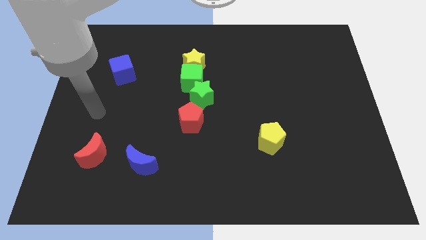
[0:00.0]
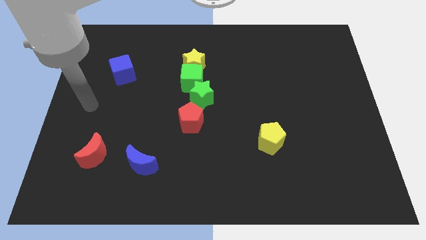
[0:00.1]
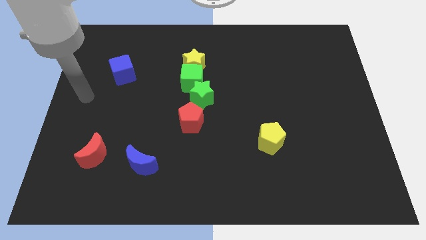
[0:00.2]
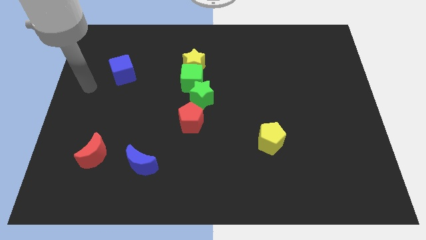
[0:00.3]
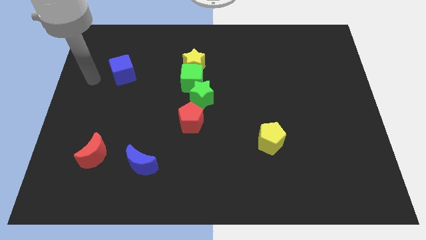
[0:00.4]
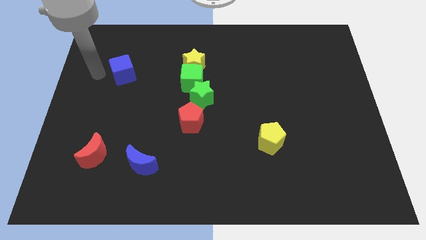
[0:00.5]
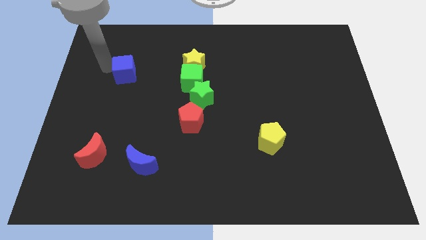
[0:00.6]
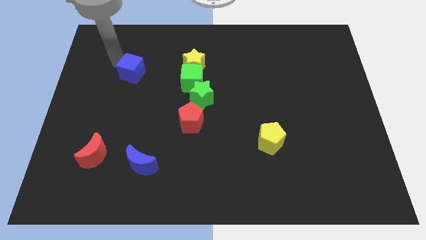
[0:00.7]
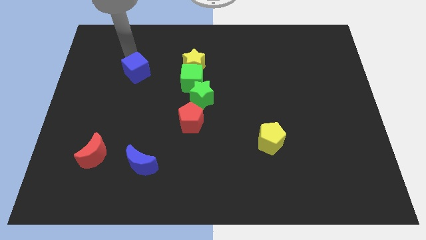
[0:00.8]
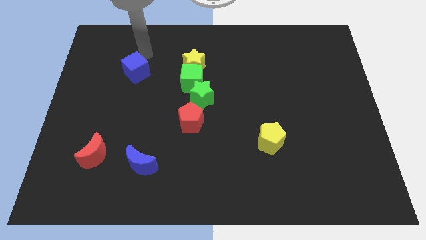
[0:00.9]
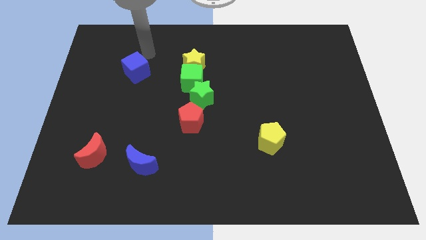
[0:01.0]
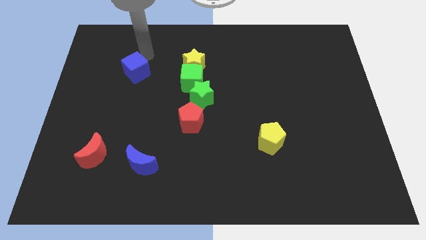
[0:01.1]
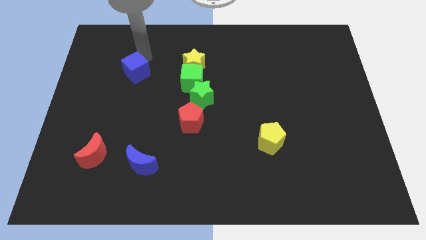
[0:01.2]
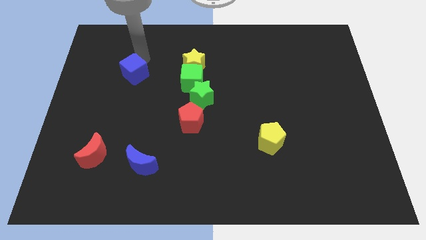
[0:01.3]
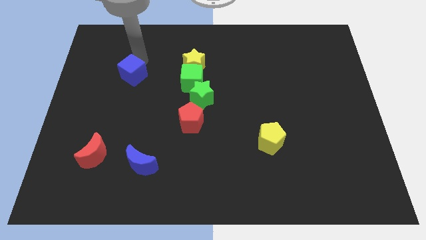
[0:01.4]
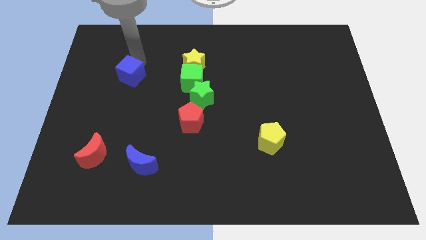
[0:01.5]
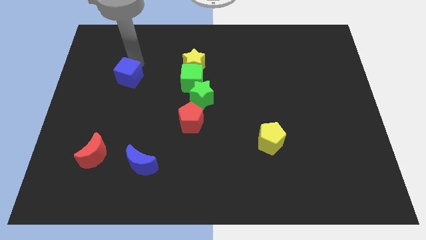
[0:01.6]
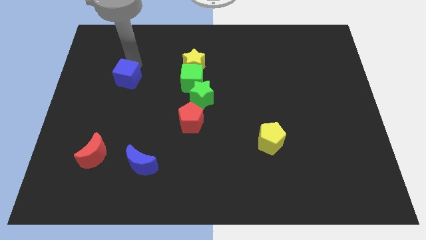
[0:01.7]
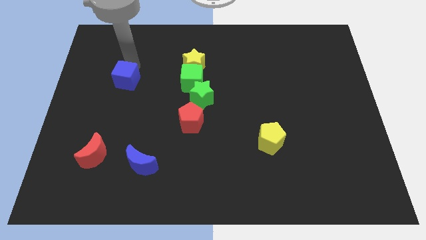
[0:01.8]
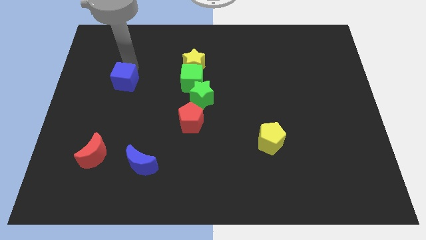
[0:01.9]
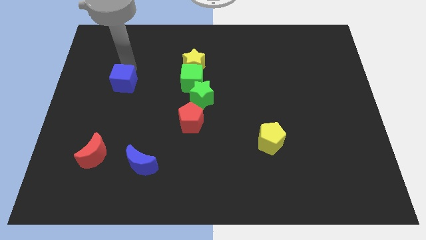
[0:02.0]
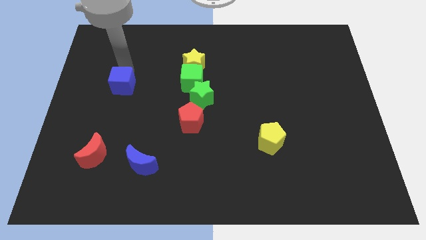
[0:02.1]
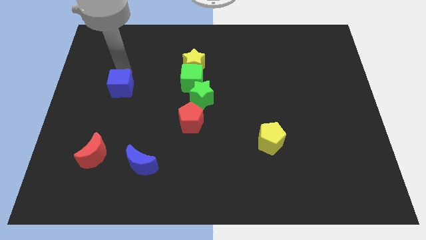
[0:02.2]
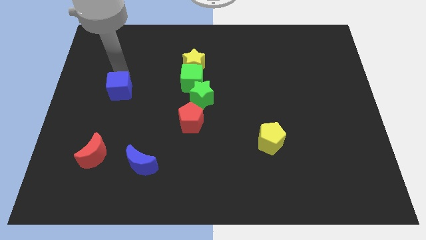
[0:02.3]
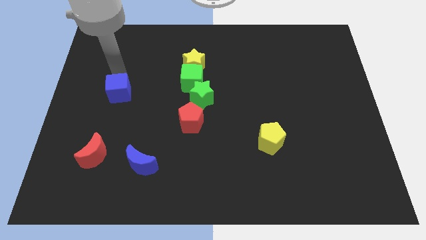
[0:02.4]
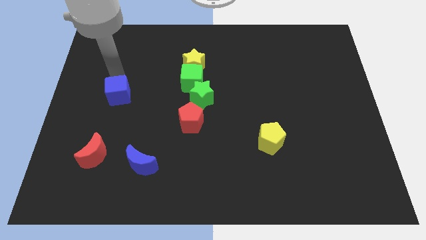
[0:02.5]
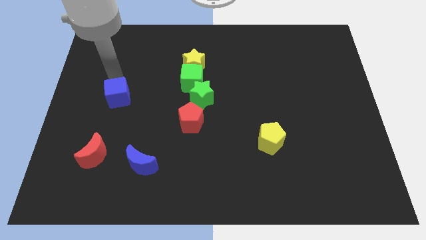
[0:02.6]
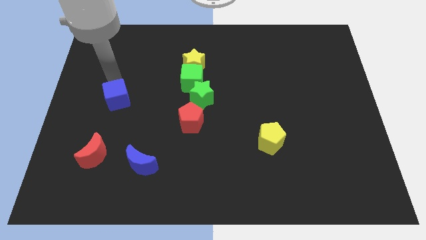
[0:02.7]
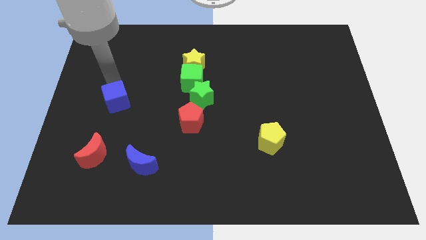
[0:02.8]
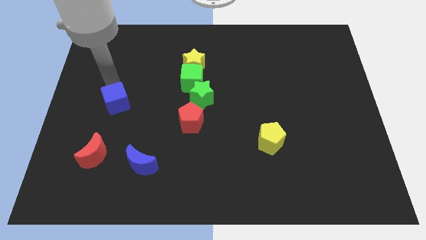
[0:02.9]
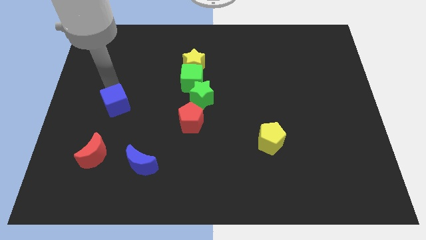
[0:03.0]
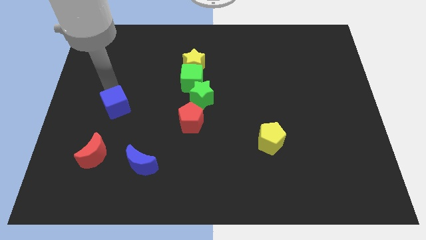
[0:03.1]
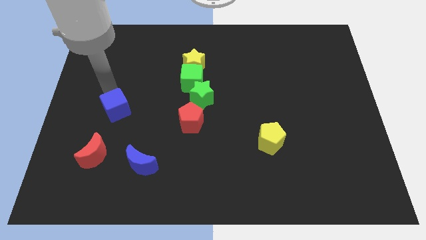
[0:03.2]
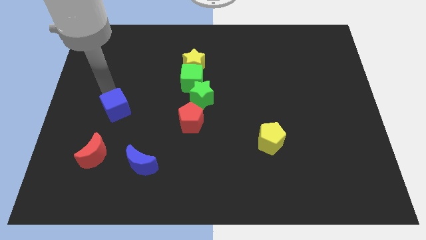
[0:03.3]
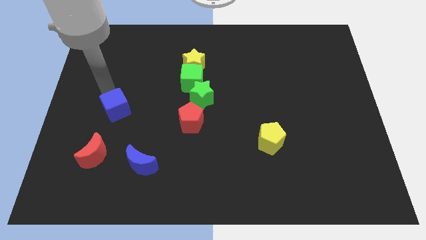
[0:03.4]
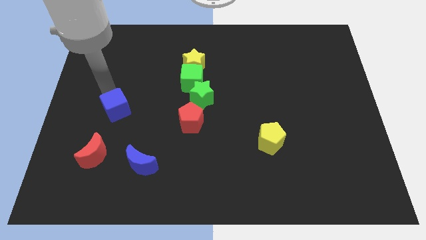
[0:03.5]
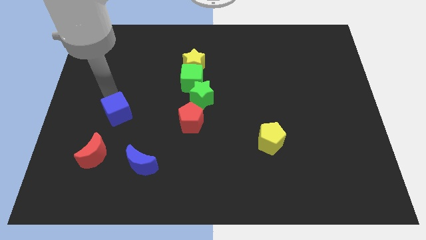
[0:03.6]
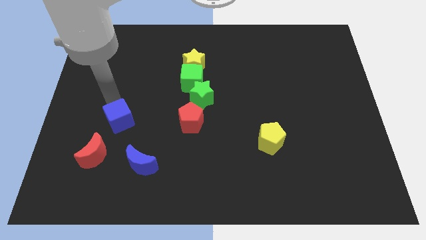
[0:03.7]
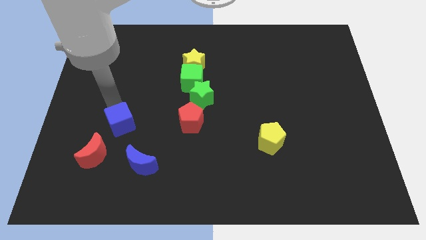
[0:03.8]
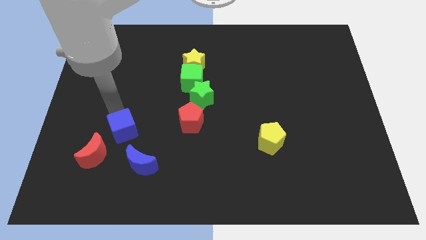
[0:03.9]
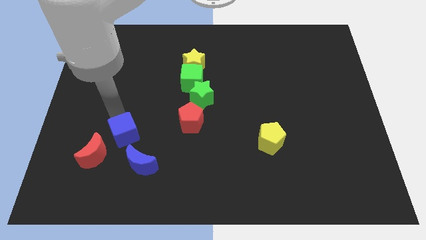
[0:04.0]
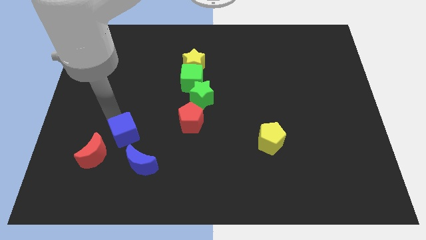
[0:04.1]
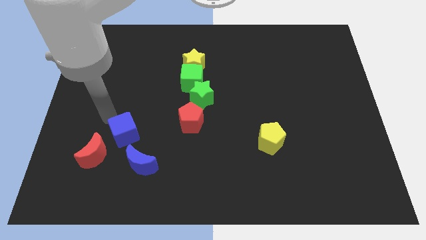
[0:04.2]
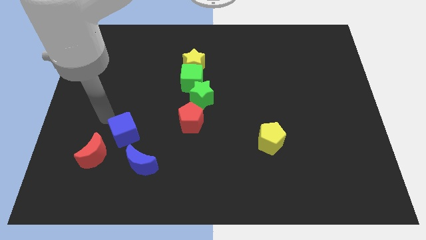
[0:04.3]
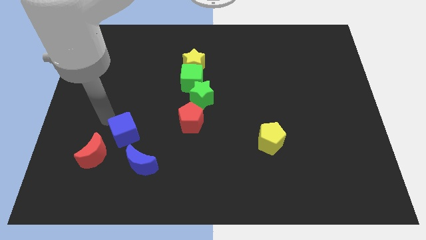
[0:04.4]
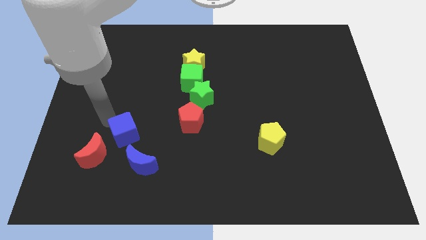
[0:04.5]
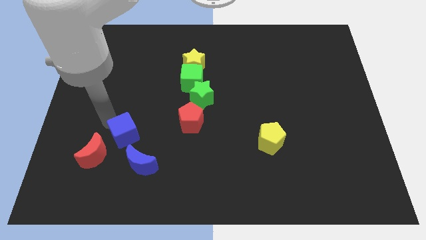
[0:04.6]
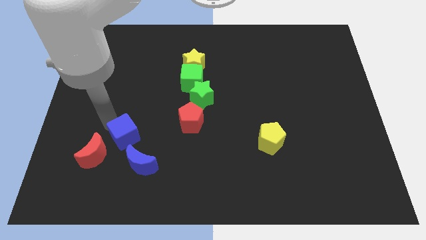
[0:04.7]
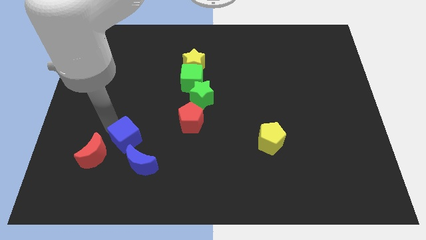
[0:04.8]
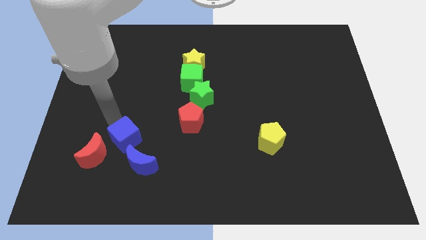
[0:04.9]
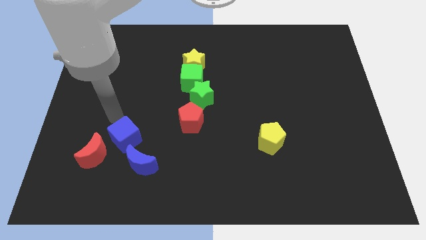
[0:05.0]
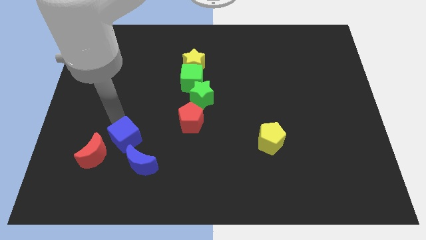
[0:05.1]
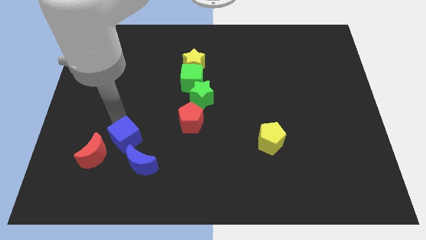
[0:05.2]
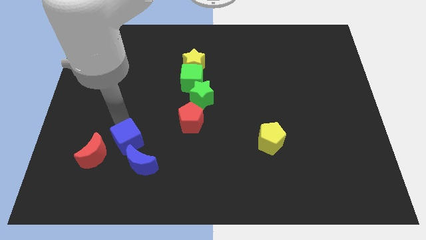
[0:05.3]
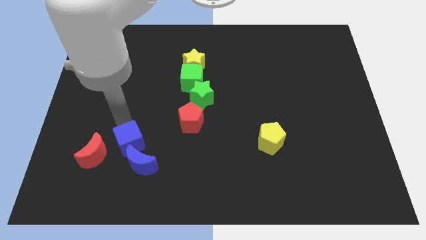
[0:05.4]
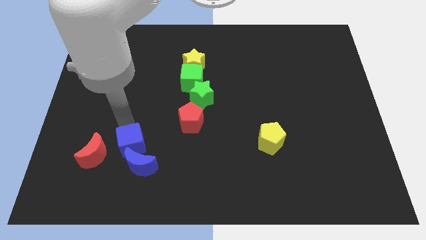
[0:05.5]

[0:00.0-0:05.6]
move the blue cube next to the blue moon

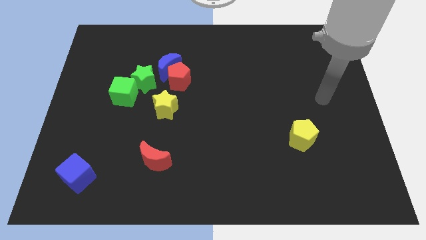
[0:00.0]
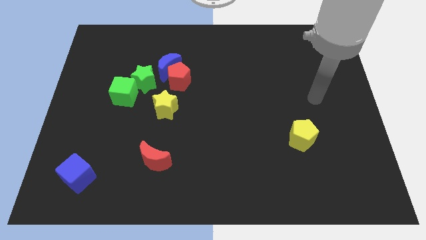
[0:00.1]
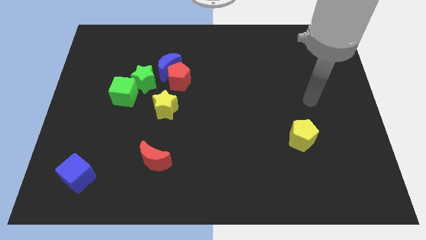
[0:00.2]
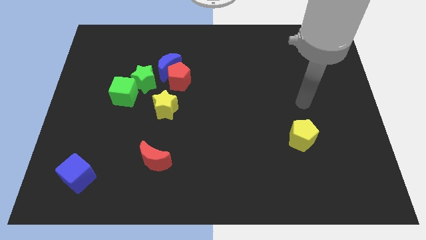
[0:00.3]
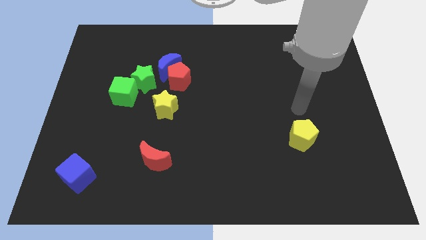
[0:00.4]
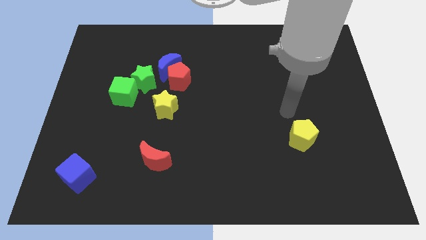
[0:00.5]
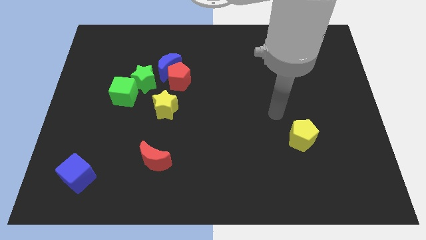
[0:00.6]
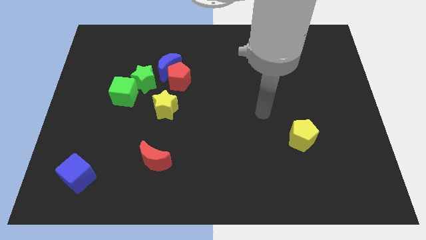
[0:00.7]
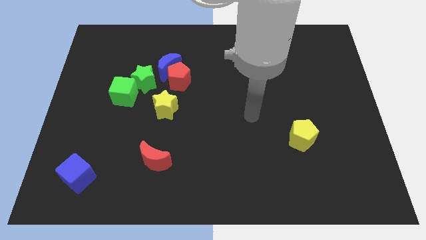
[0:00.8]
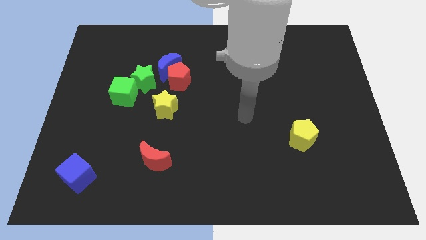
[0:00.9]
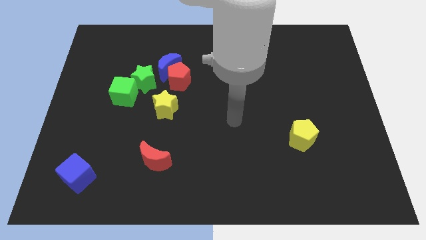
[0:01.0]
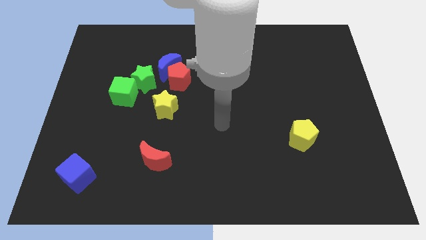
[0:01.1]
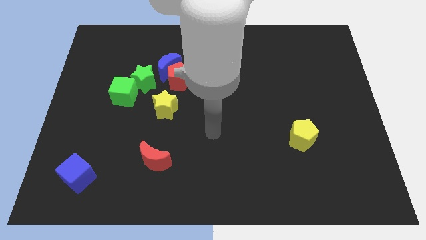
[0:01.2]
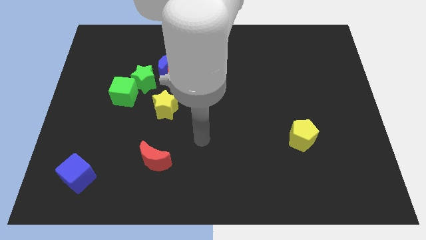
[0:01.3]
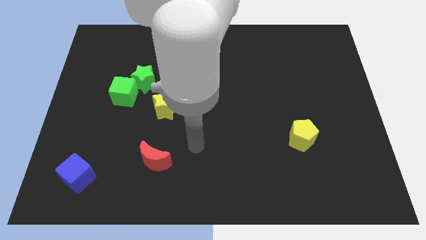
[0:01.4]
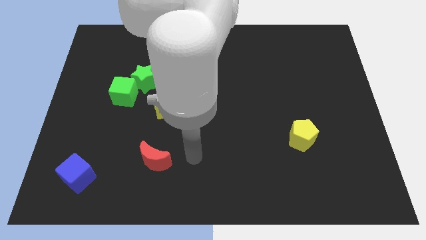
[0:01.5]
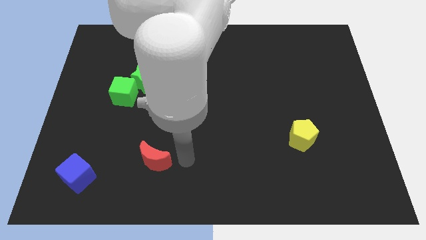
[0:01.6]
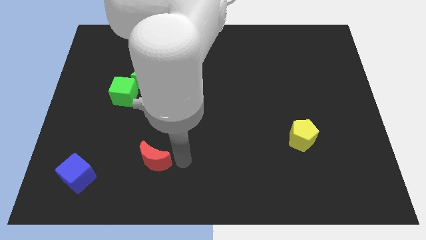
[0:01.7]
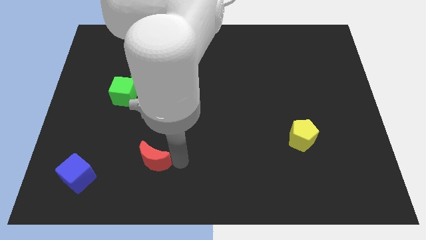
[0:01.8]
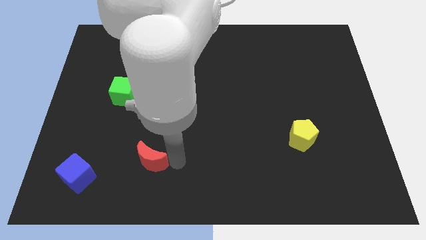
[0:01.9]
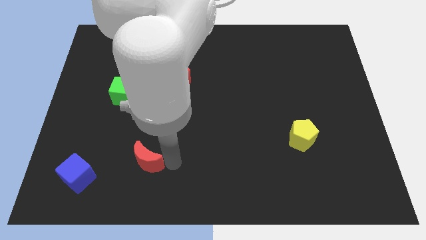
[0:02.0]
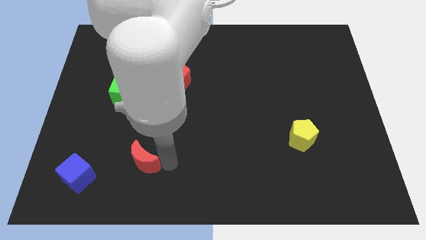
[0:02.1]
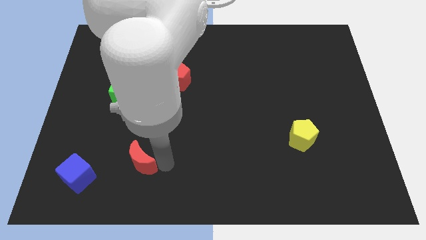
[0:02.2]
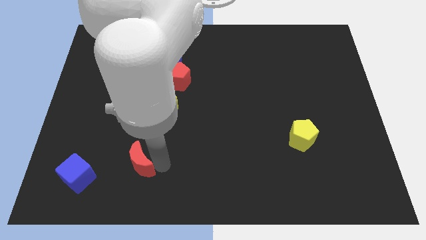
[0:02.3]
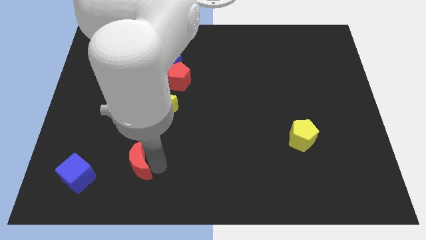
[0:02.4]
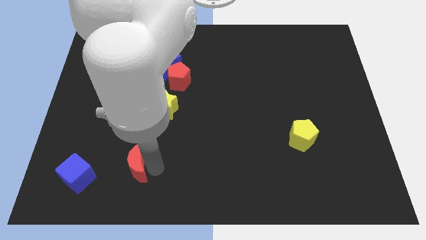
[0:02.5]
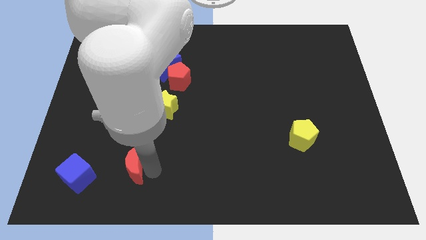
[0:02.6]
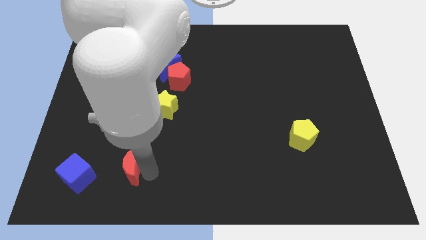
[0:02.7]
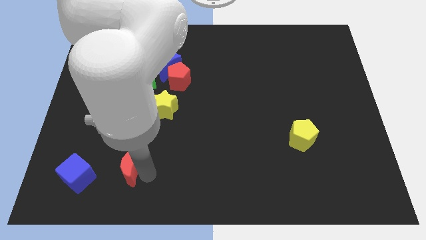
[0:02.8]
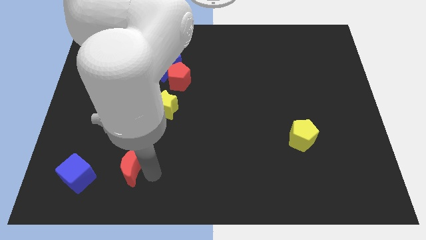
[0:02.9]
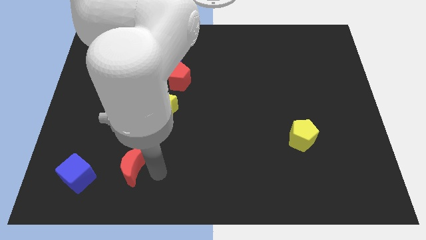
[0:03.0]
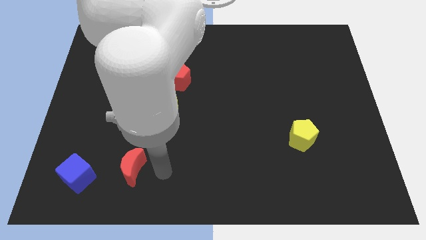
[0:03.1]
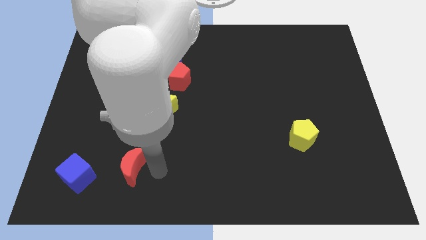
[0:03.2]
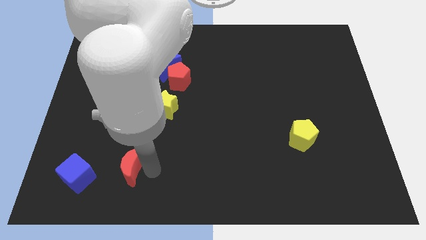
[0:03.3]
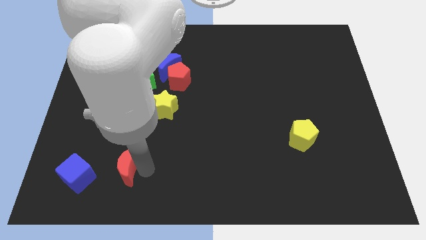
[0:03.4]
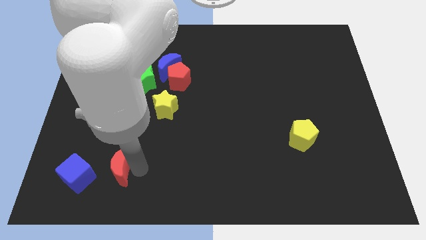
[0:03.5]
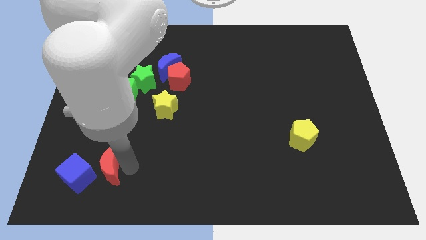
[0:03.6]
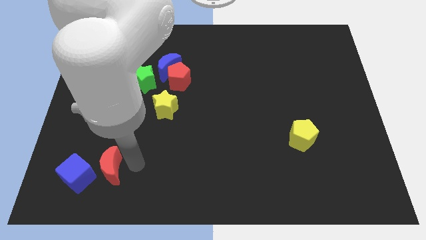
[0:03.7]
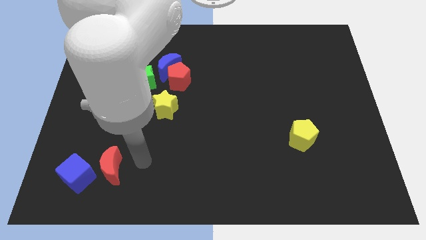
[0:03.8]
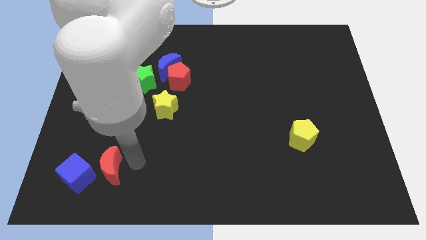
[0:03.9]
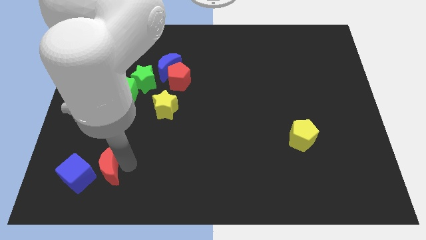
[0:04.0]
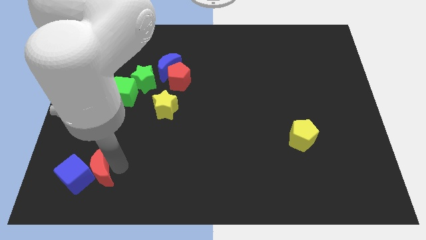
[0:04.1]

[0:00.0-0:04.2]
put the red moon next to the blue cube
